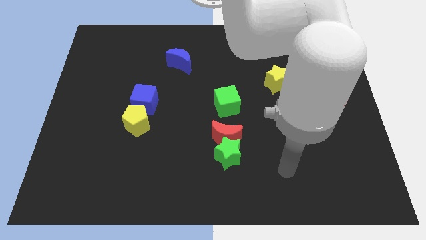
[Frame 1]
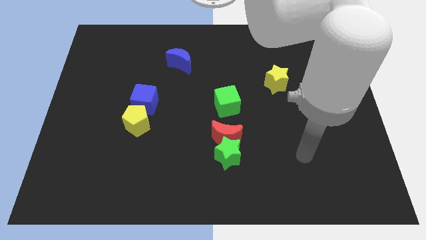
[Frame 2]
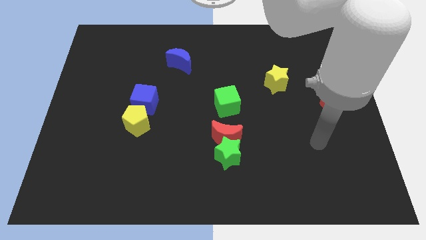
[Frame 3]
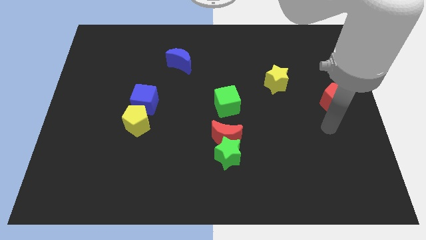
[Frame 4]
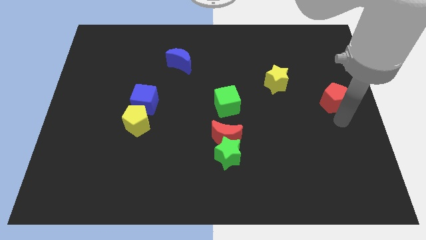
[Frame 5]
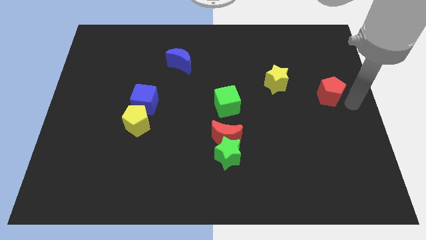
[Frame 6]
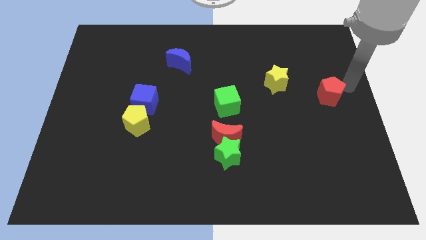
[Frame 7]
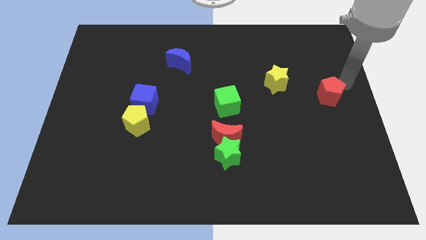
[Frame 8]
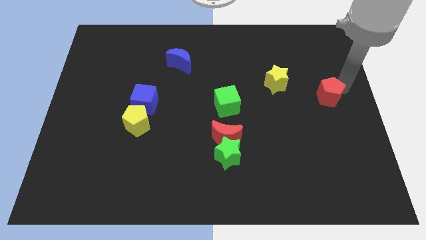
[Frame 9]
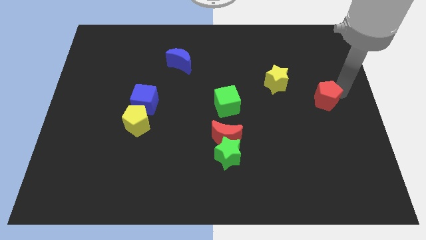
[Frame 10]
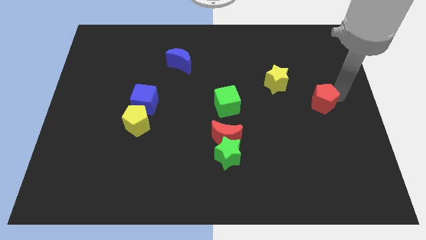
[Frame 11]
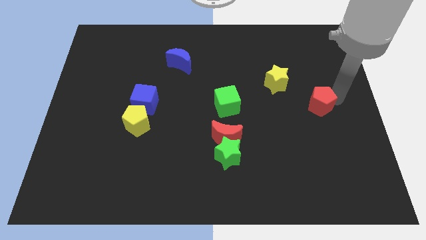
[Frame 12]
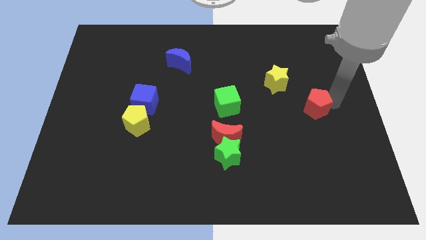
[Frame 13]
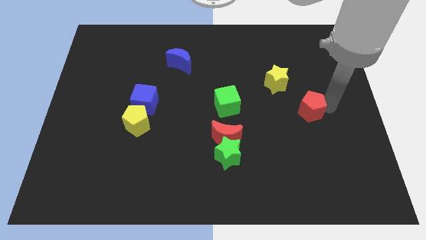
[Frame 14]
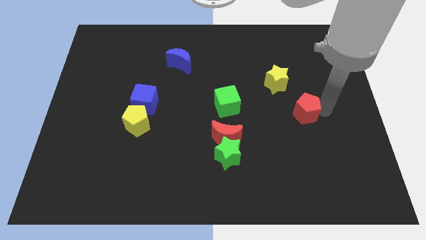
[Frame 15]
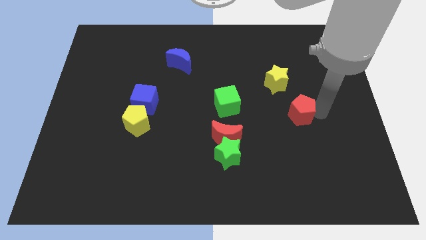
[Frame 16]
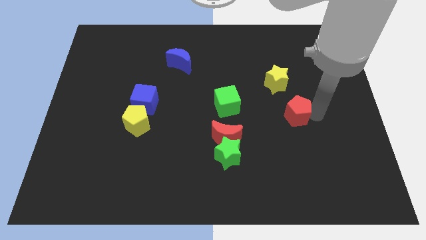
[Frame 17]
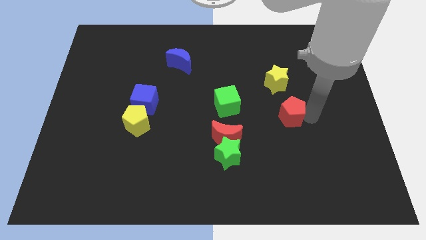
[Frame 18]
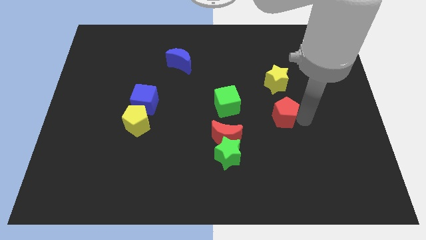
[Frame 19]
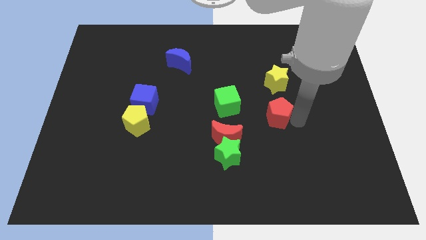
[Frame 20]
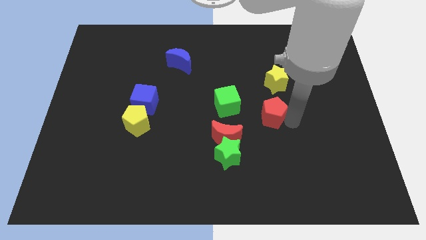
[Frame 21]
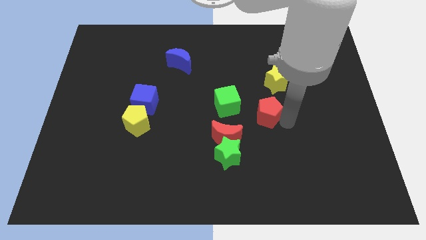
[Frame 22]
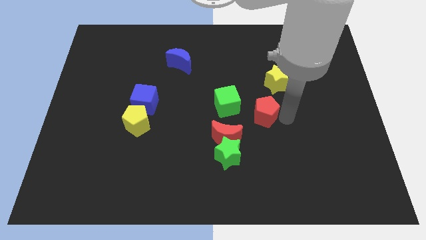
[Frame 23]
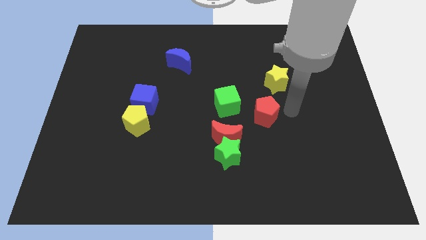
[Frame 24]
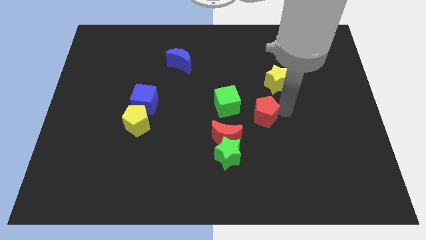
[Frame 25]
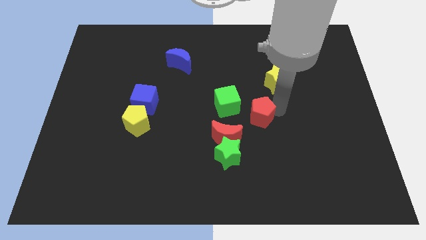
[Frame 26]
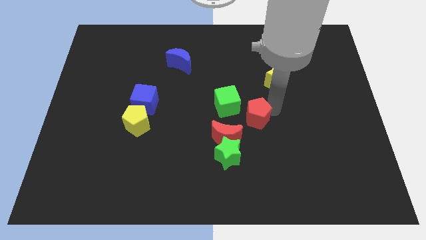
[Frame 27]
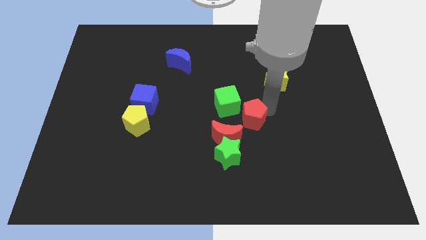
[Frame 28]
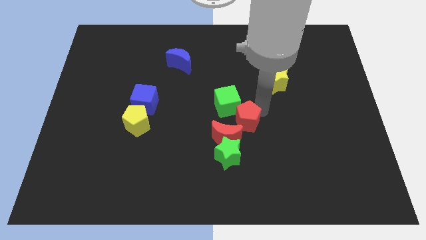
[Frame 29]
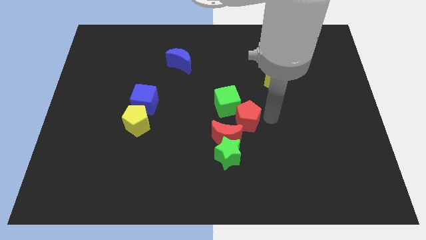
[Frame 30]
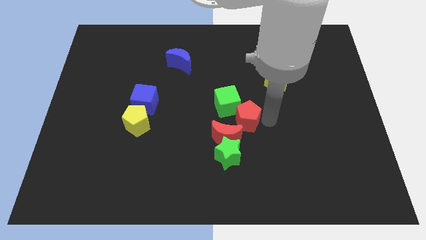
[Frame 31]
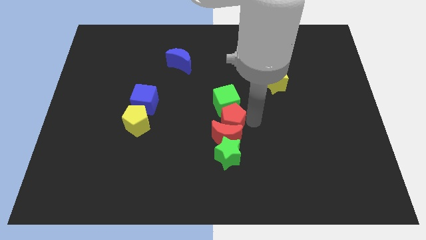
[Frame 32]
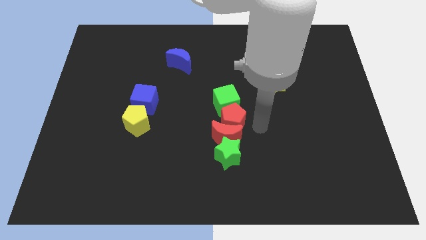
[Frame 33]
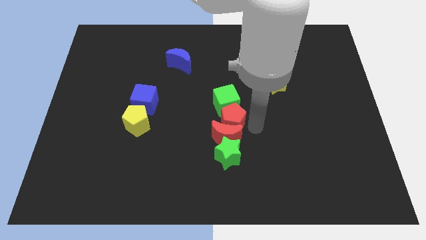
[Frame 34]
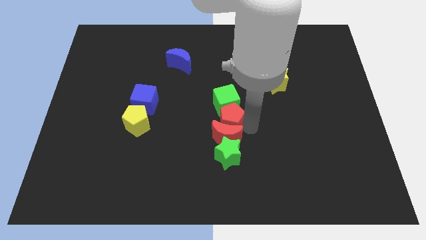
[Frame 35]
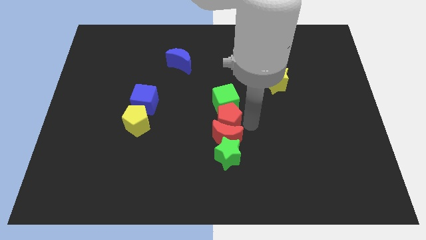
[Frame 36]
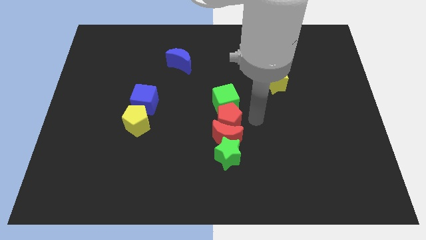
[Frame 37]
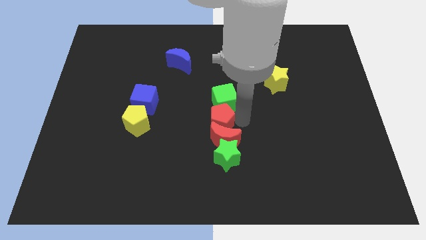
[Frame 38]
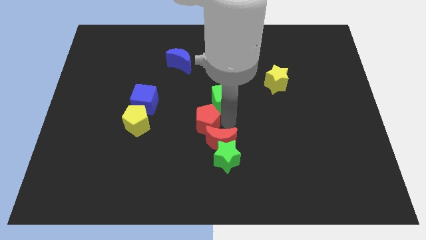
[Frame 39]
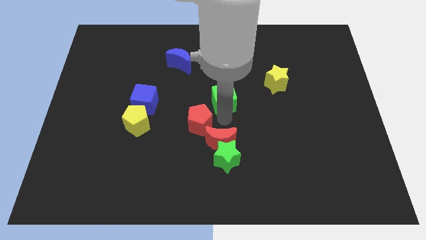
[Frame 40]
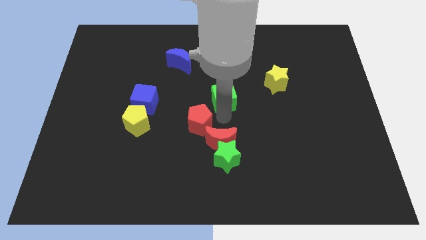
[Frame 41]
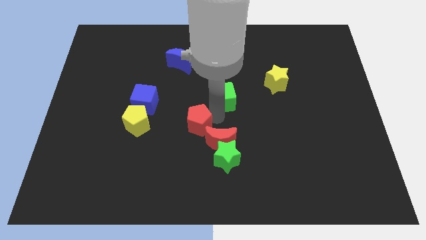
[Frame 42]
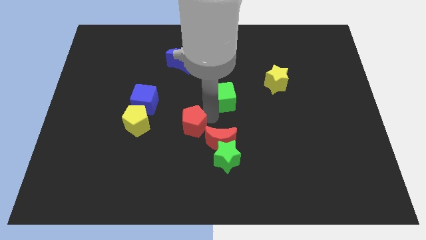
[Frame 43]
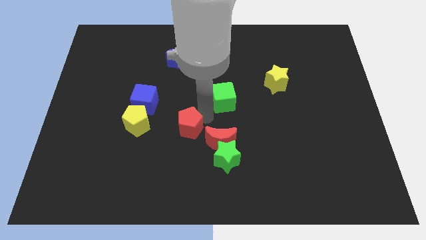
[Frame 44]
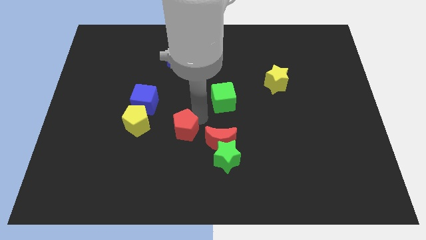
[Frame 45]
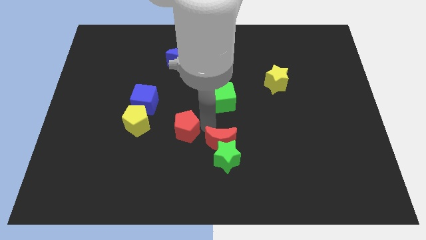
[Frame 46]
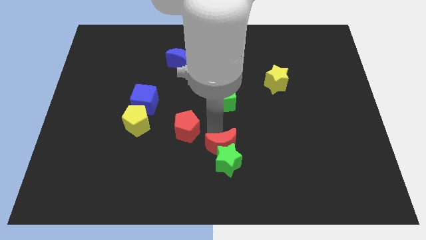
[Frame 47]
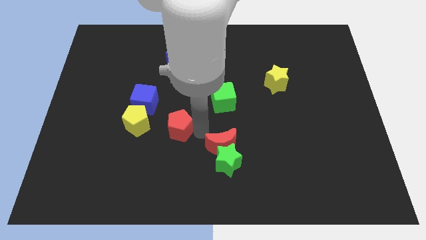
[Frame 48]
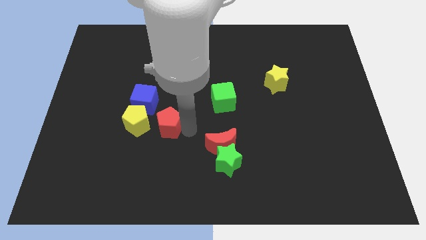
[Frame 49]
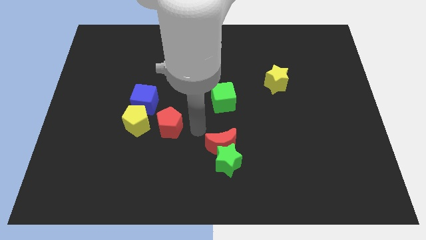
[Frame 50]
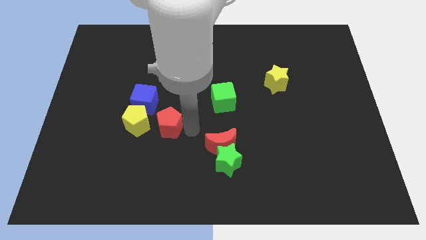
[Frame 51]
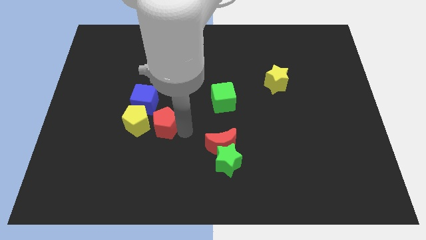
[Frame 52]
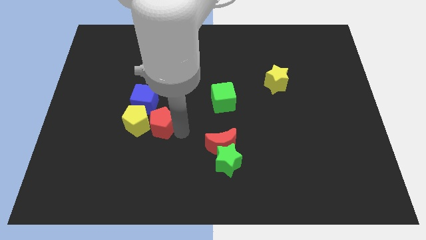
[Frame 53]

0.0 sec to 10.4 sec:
push the red pentagon close to the yellow pentagon

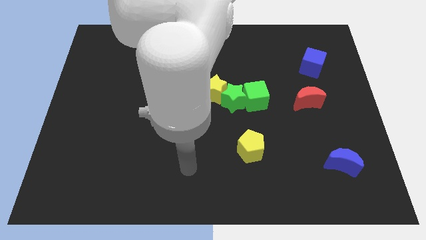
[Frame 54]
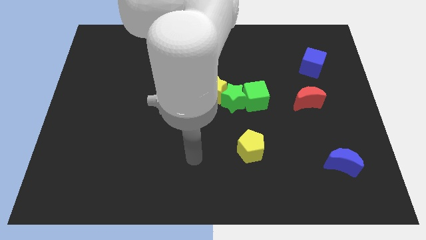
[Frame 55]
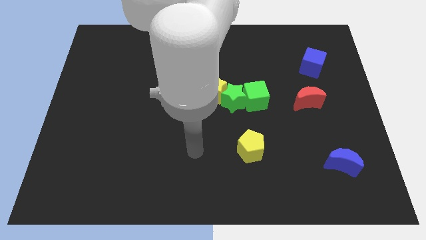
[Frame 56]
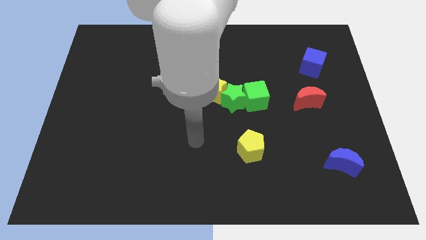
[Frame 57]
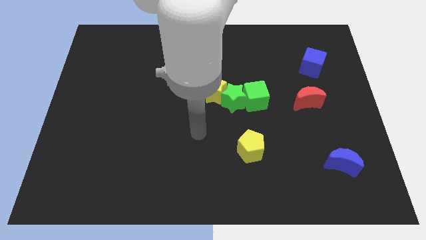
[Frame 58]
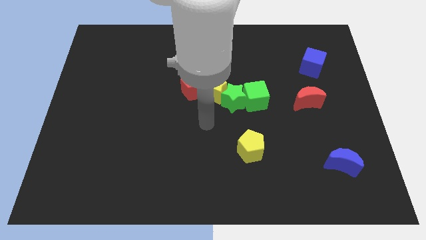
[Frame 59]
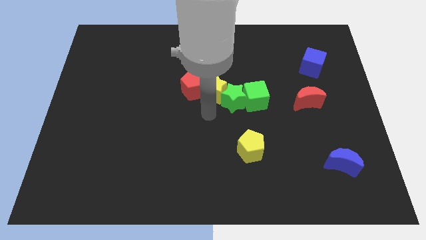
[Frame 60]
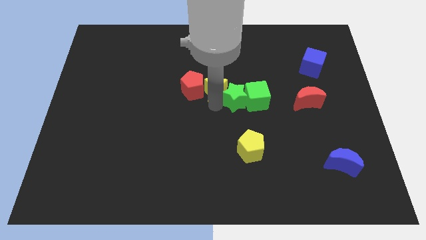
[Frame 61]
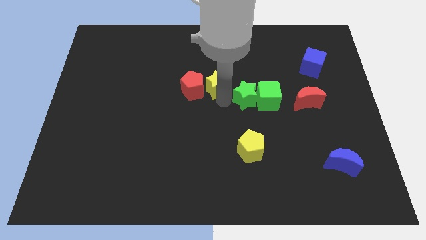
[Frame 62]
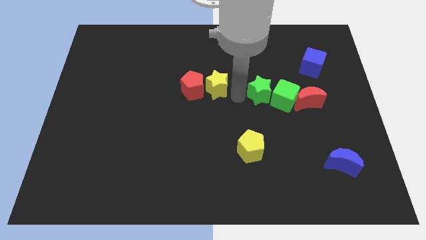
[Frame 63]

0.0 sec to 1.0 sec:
put the green cube to the red moon
